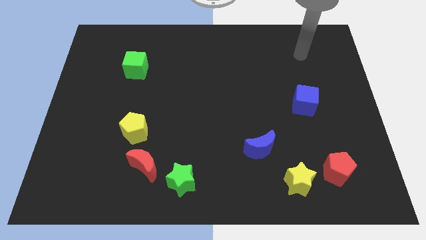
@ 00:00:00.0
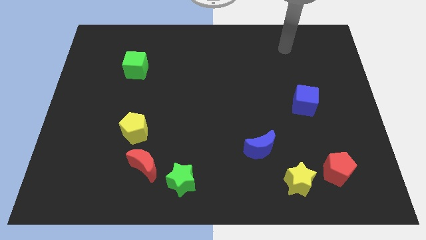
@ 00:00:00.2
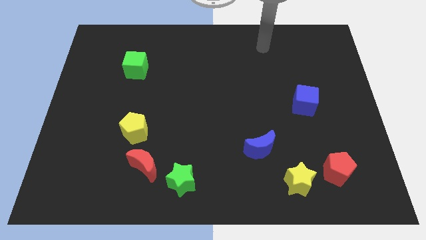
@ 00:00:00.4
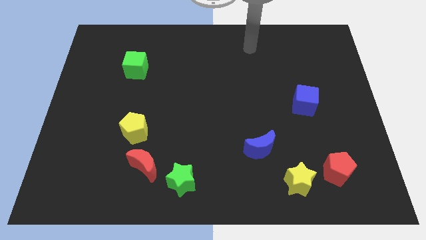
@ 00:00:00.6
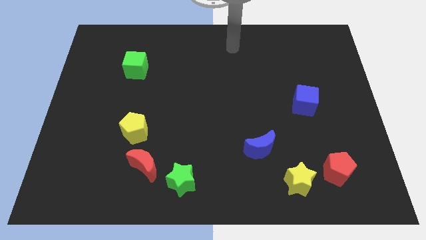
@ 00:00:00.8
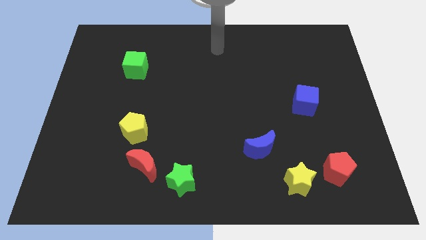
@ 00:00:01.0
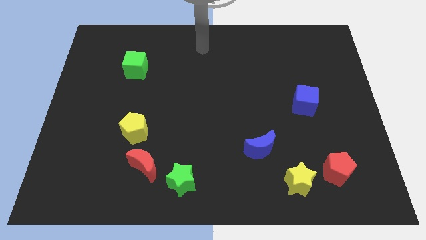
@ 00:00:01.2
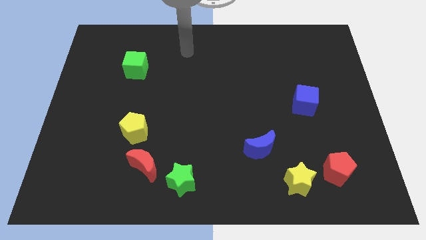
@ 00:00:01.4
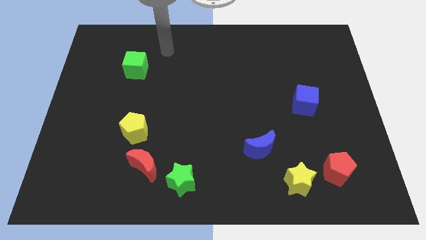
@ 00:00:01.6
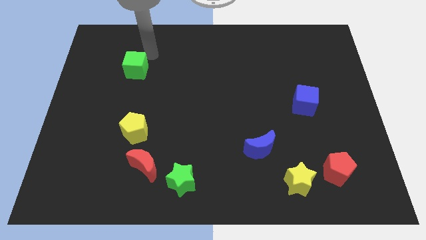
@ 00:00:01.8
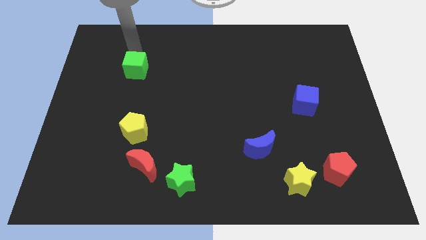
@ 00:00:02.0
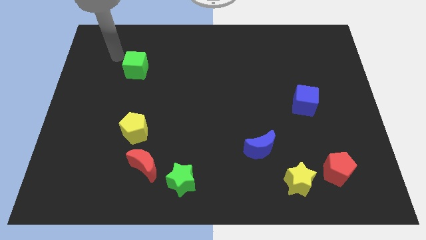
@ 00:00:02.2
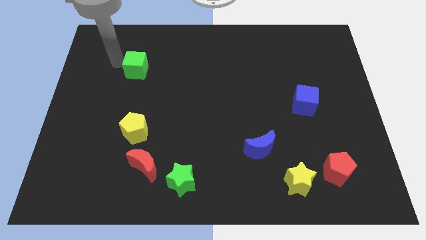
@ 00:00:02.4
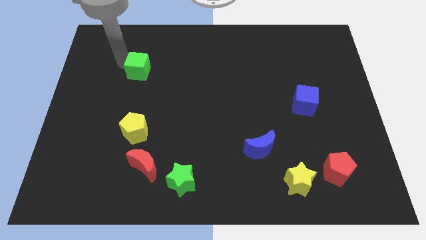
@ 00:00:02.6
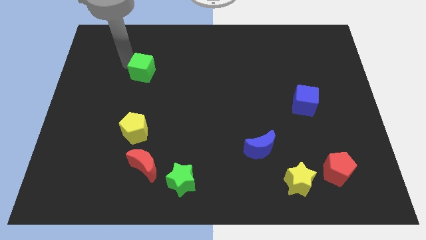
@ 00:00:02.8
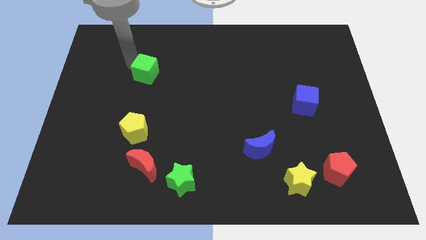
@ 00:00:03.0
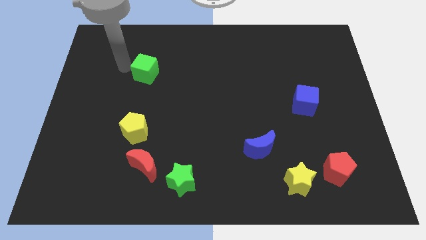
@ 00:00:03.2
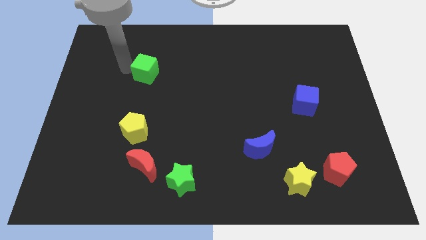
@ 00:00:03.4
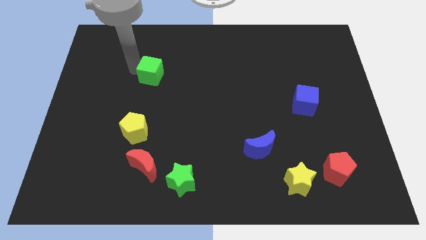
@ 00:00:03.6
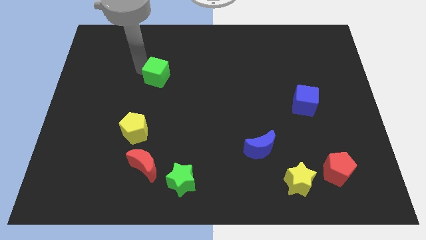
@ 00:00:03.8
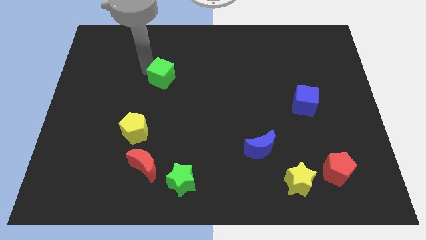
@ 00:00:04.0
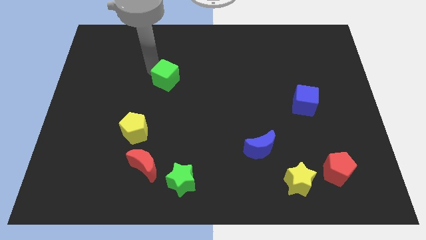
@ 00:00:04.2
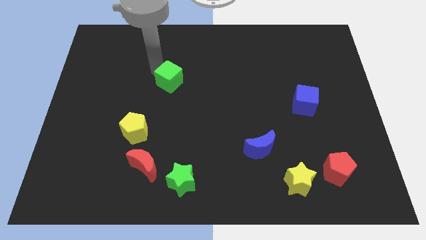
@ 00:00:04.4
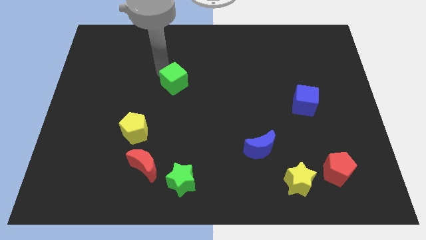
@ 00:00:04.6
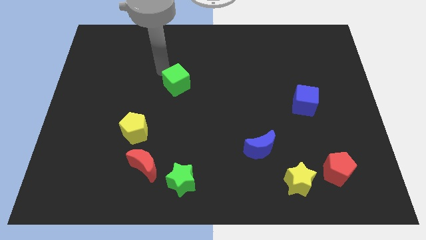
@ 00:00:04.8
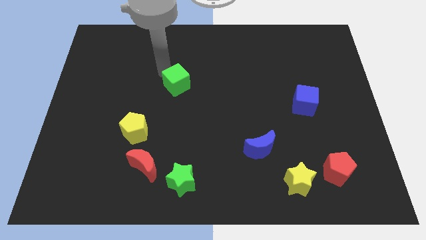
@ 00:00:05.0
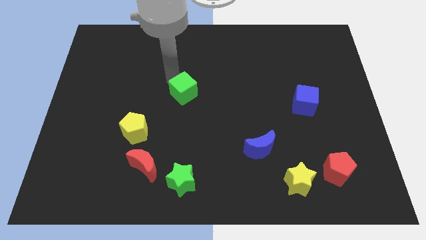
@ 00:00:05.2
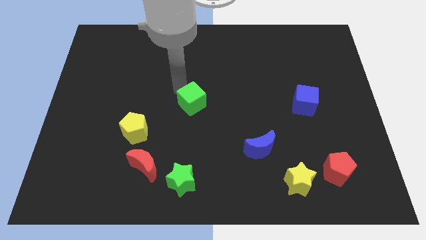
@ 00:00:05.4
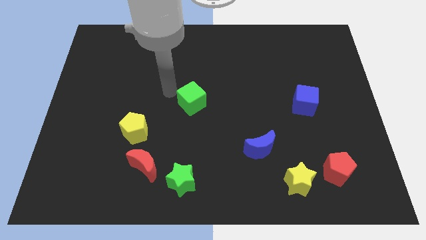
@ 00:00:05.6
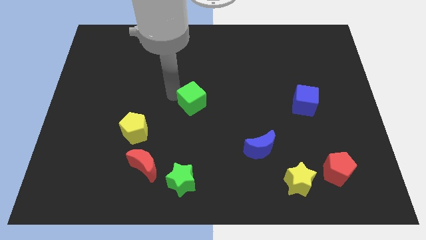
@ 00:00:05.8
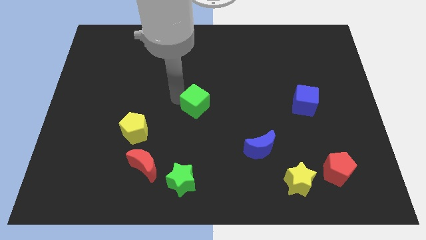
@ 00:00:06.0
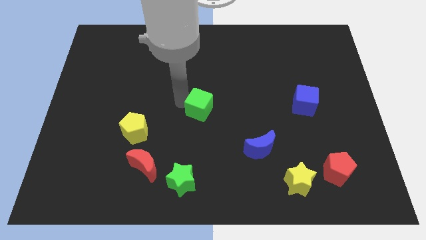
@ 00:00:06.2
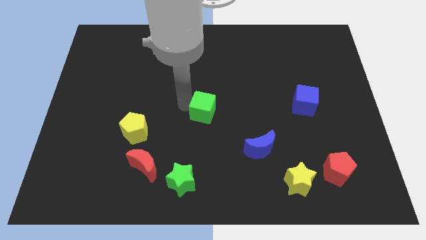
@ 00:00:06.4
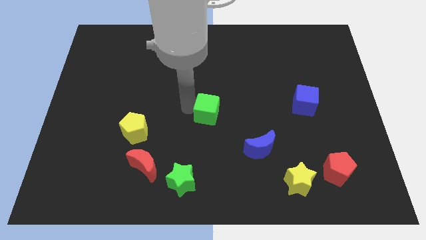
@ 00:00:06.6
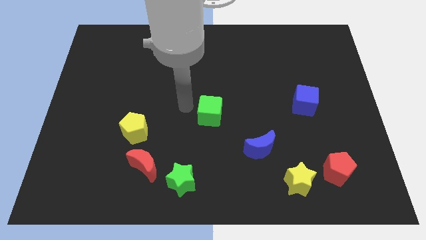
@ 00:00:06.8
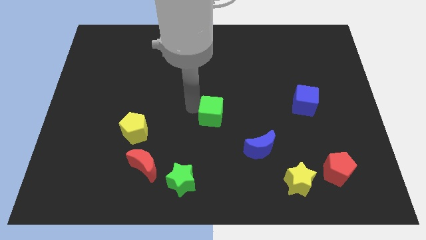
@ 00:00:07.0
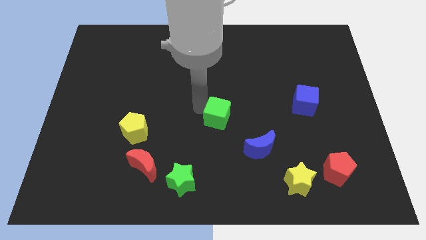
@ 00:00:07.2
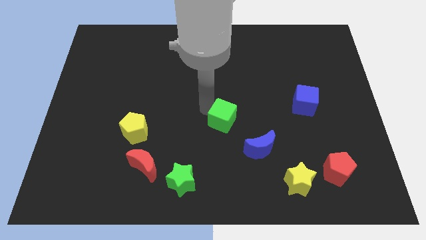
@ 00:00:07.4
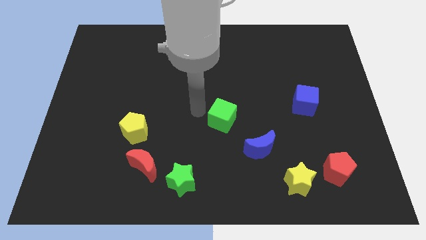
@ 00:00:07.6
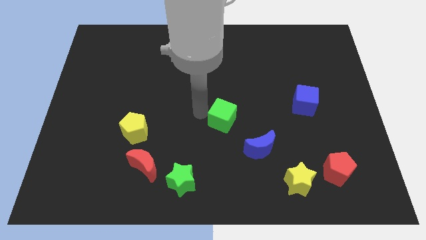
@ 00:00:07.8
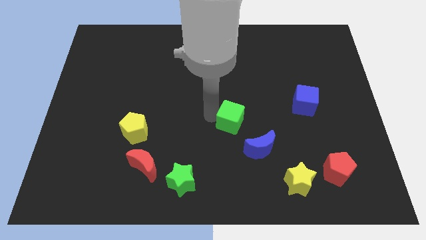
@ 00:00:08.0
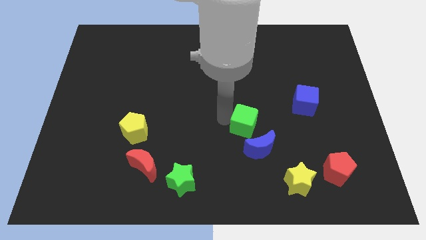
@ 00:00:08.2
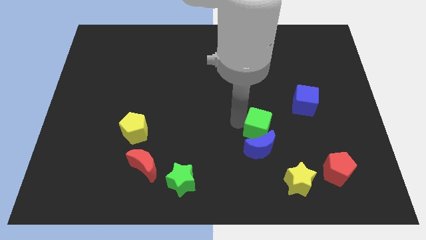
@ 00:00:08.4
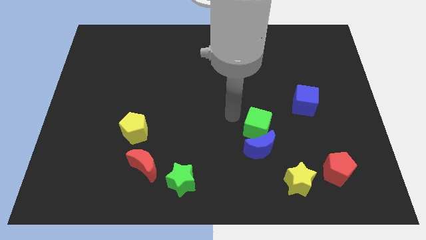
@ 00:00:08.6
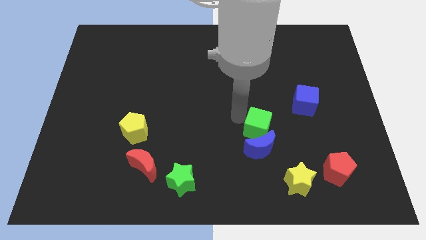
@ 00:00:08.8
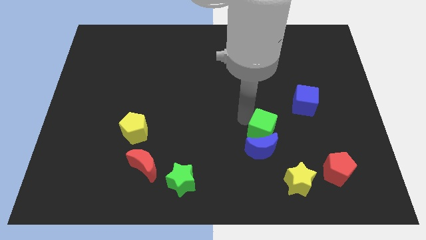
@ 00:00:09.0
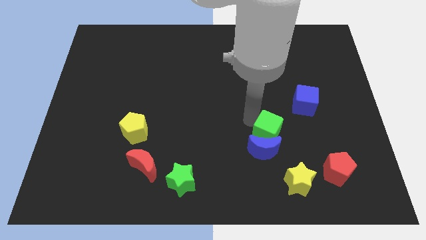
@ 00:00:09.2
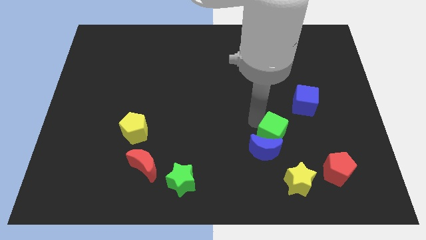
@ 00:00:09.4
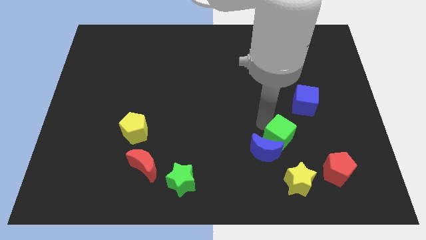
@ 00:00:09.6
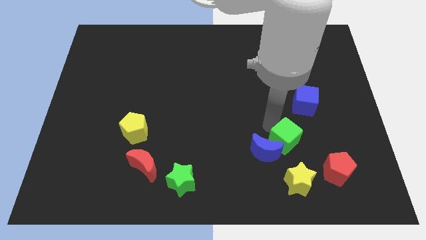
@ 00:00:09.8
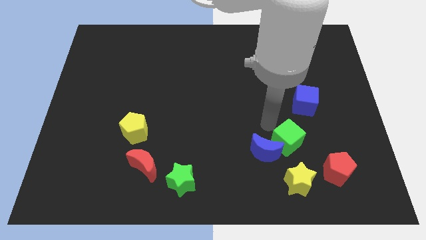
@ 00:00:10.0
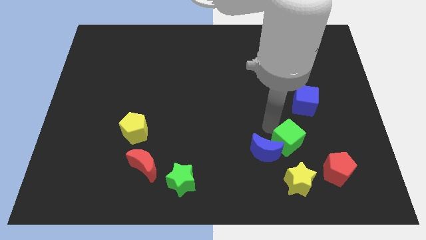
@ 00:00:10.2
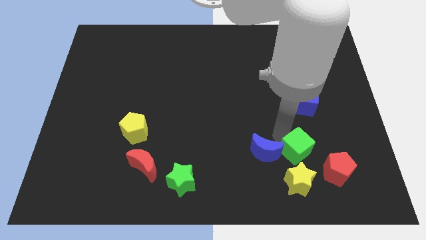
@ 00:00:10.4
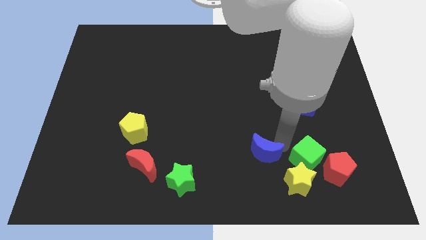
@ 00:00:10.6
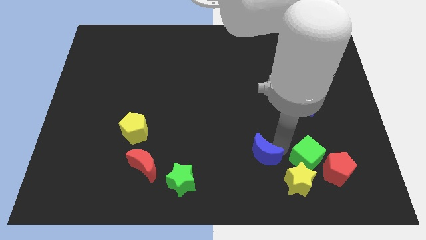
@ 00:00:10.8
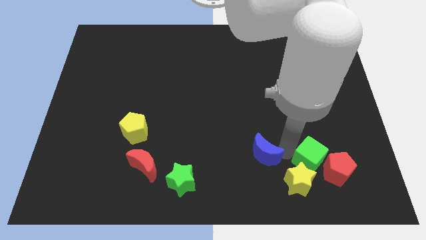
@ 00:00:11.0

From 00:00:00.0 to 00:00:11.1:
put the green cube close to the red pentagon

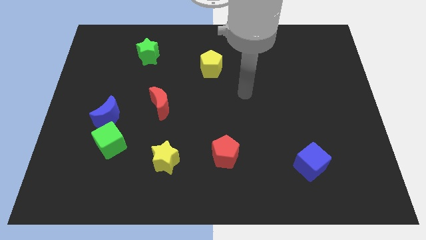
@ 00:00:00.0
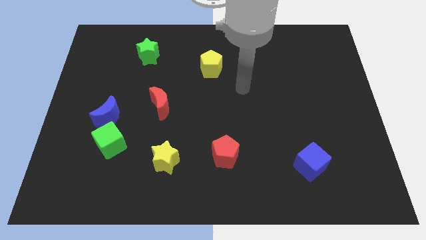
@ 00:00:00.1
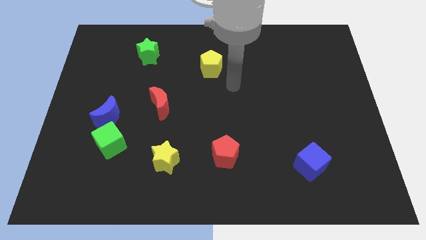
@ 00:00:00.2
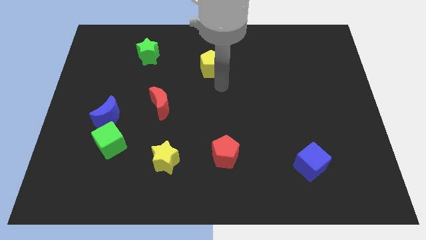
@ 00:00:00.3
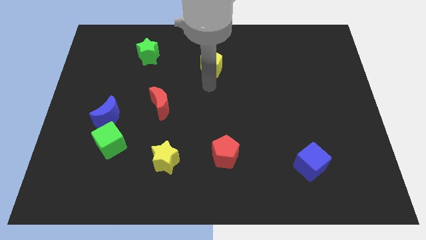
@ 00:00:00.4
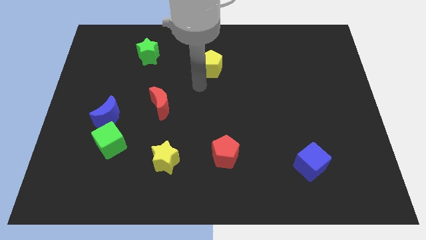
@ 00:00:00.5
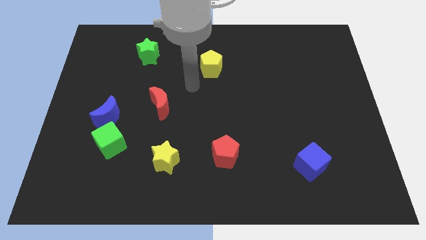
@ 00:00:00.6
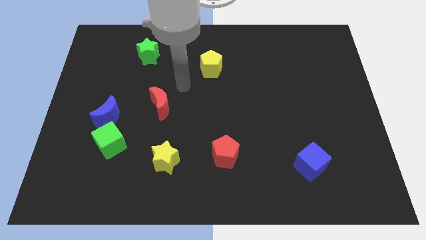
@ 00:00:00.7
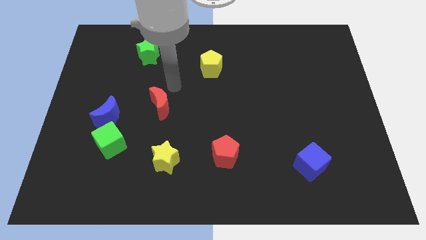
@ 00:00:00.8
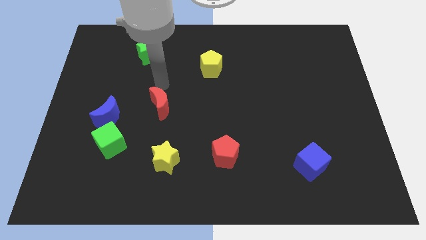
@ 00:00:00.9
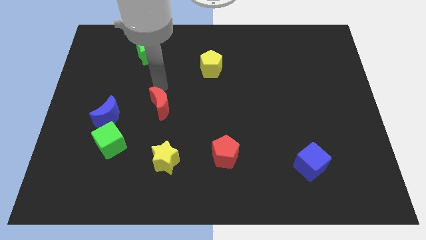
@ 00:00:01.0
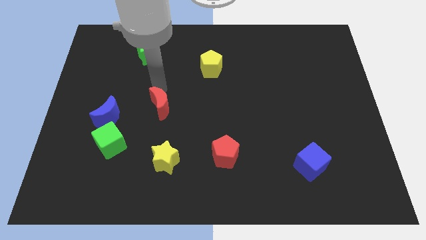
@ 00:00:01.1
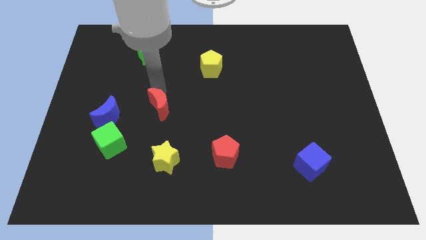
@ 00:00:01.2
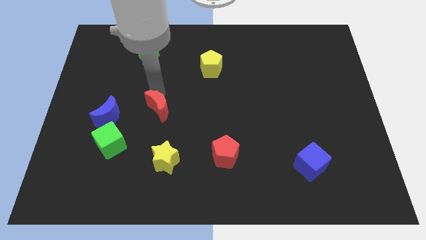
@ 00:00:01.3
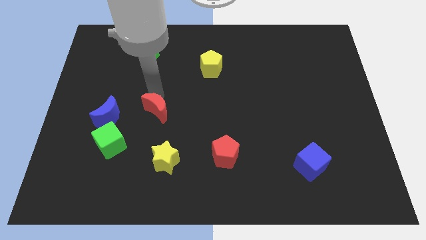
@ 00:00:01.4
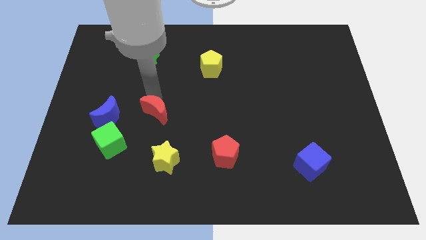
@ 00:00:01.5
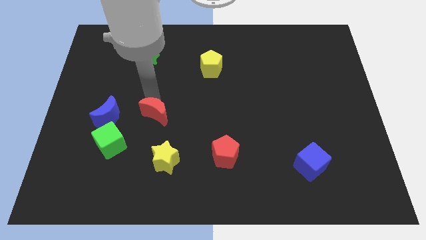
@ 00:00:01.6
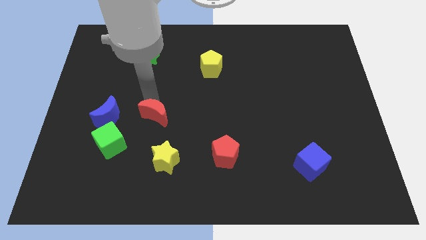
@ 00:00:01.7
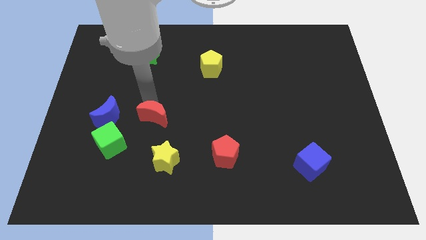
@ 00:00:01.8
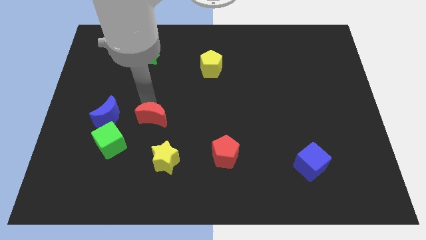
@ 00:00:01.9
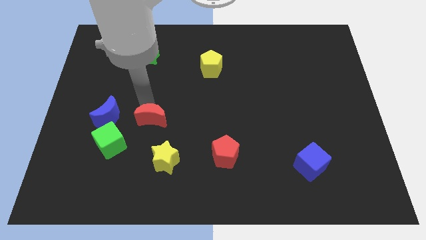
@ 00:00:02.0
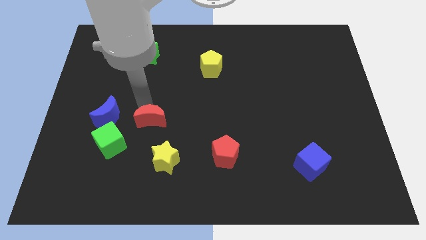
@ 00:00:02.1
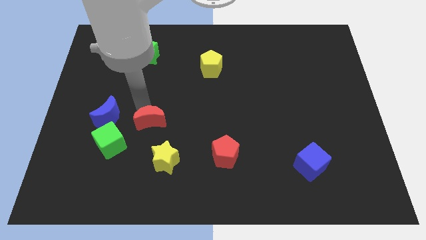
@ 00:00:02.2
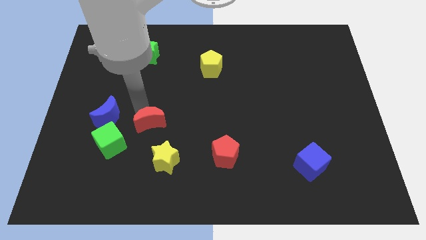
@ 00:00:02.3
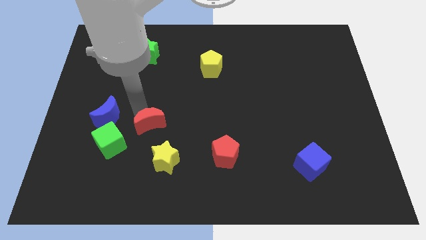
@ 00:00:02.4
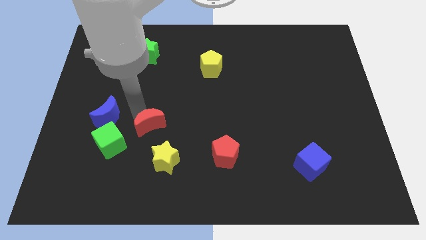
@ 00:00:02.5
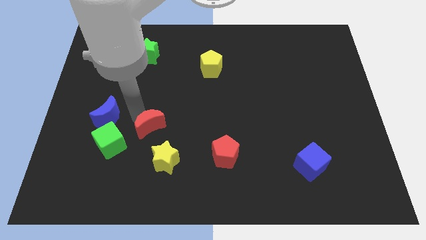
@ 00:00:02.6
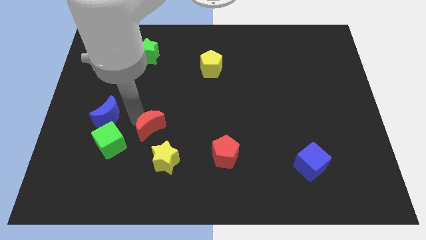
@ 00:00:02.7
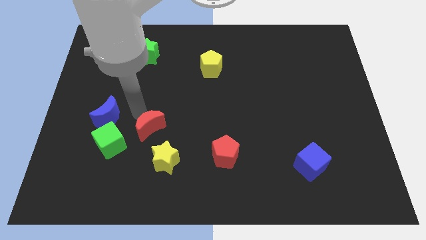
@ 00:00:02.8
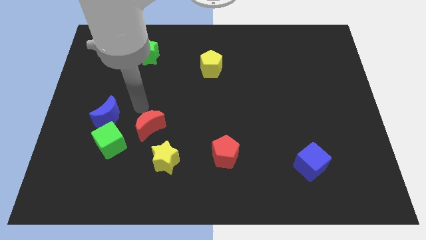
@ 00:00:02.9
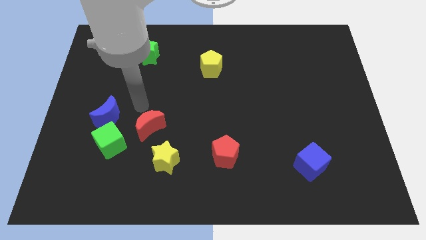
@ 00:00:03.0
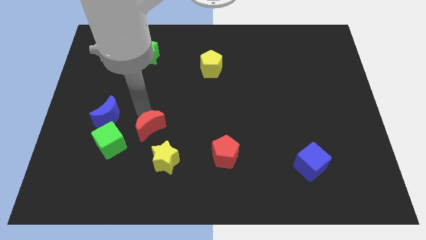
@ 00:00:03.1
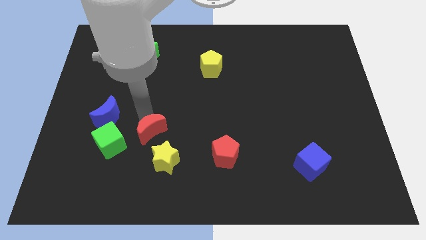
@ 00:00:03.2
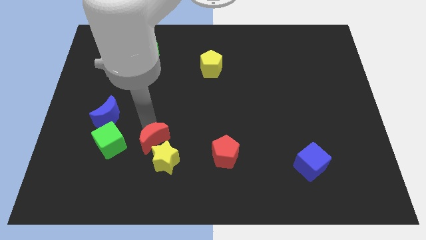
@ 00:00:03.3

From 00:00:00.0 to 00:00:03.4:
push the red moon close to the yellow star
